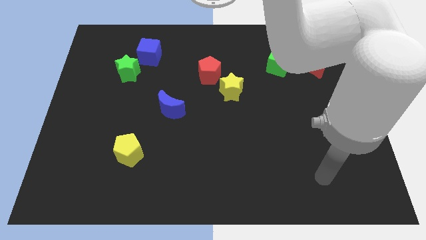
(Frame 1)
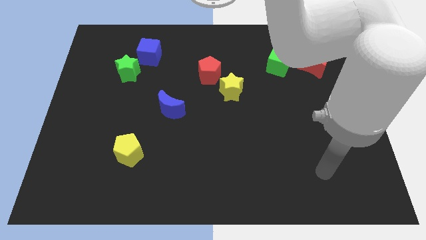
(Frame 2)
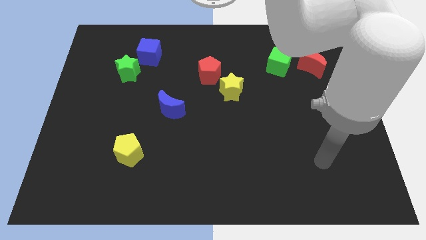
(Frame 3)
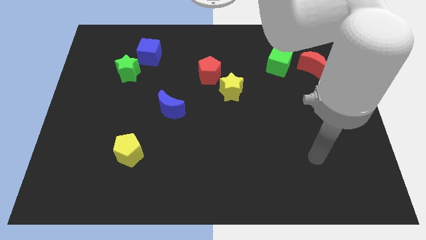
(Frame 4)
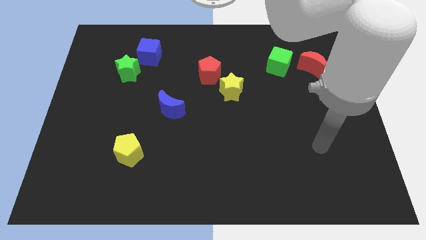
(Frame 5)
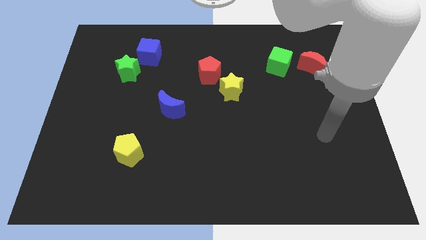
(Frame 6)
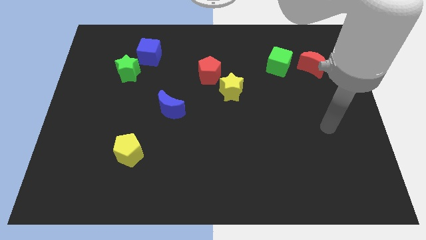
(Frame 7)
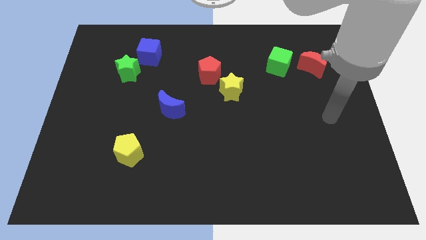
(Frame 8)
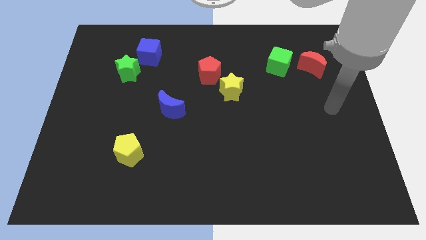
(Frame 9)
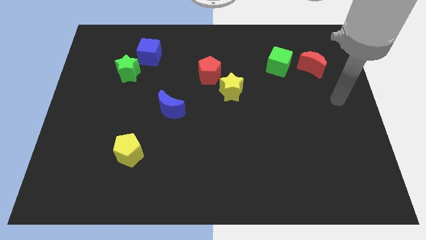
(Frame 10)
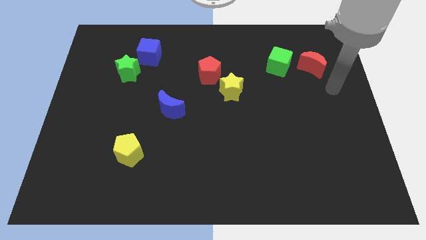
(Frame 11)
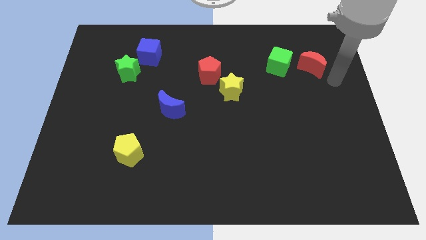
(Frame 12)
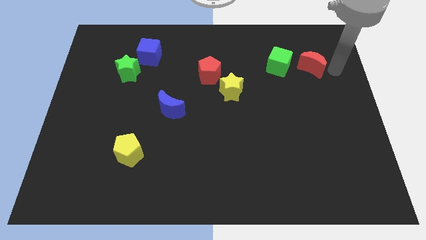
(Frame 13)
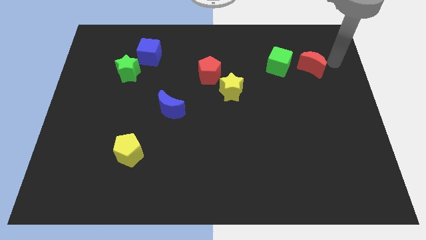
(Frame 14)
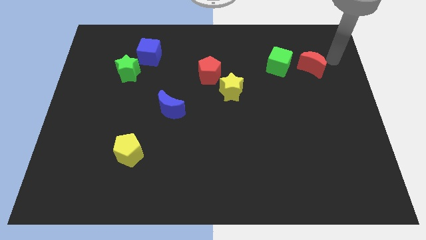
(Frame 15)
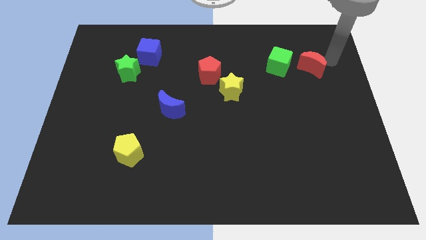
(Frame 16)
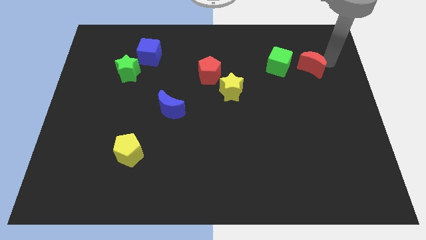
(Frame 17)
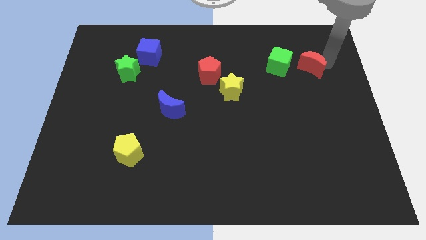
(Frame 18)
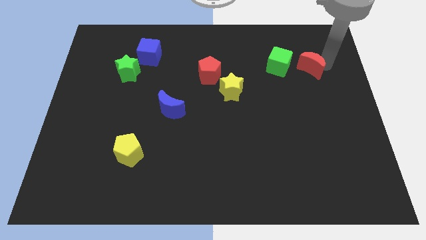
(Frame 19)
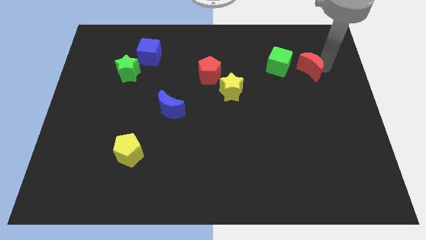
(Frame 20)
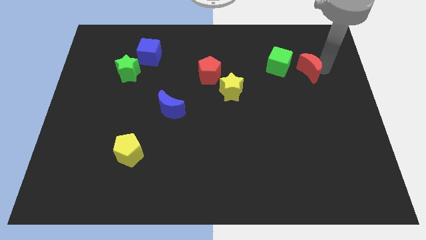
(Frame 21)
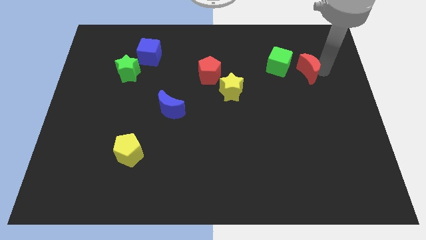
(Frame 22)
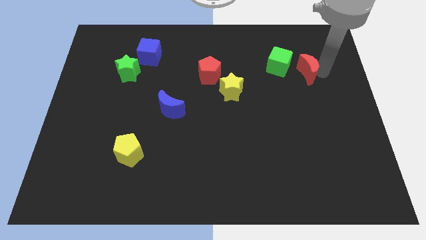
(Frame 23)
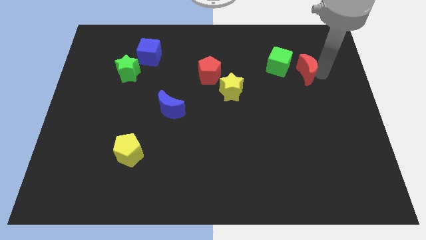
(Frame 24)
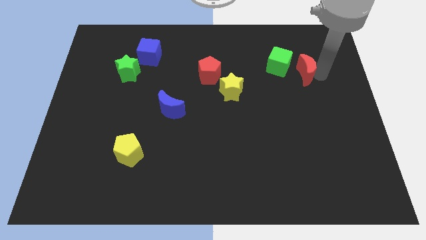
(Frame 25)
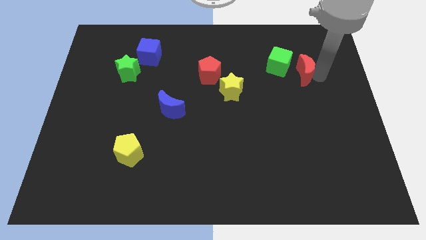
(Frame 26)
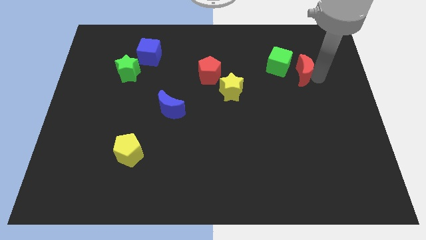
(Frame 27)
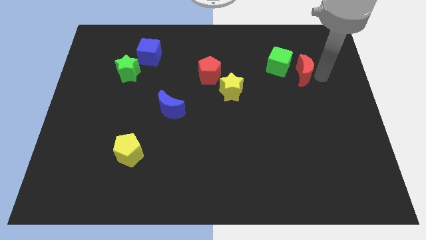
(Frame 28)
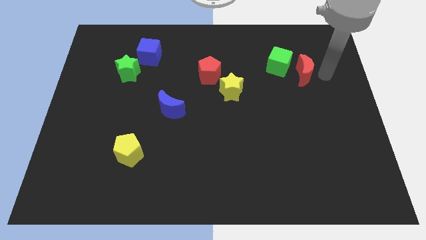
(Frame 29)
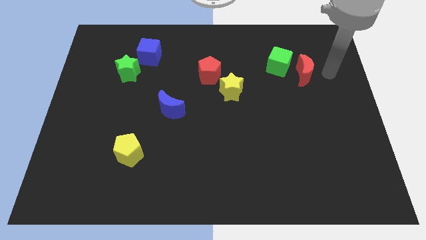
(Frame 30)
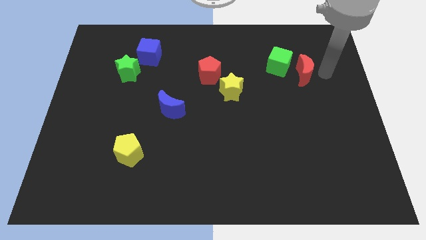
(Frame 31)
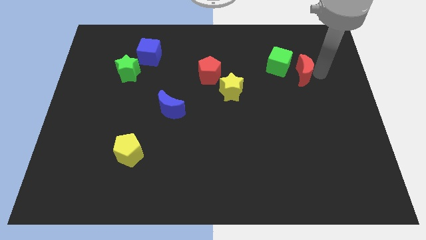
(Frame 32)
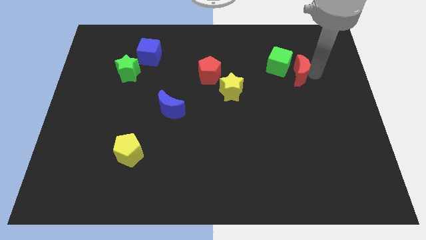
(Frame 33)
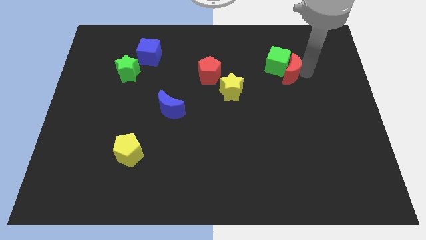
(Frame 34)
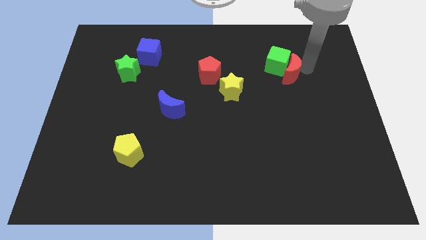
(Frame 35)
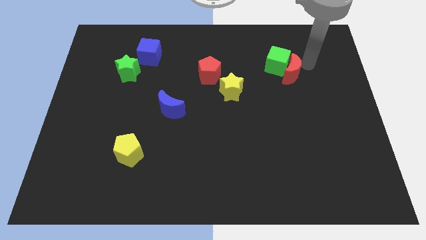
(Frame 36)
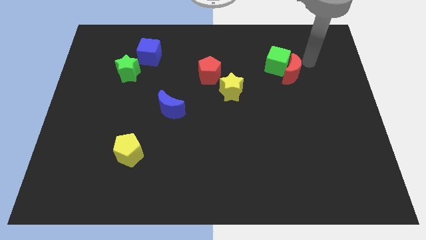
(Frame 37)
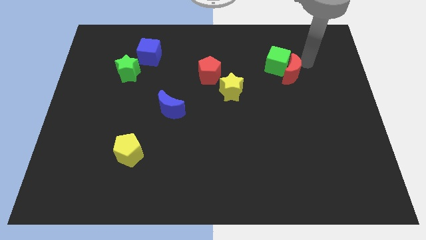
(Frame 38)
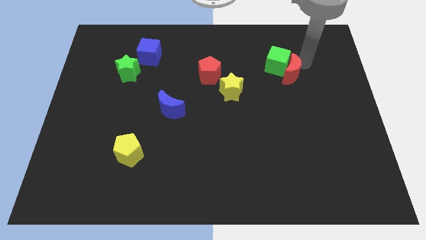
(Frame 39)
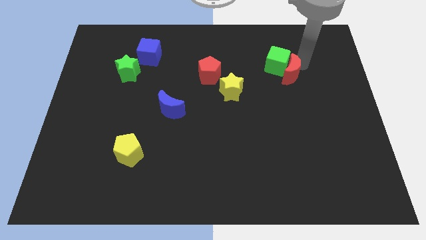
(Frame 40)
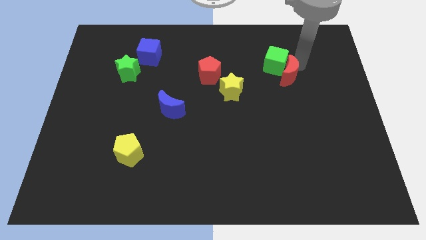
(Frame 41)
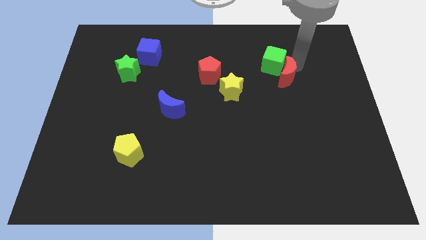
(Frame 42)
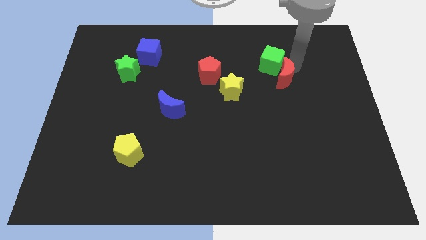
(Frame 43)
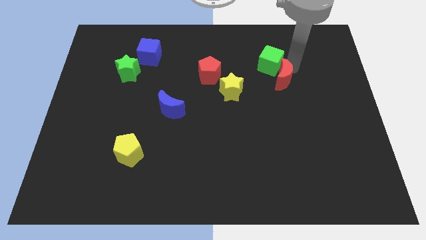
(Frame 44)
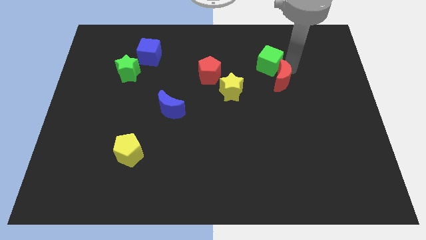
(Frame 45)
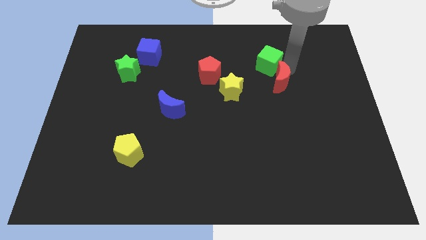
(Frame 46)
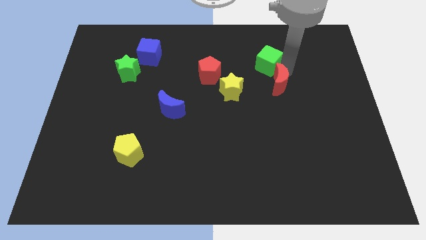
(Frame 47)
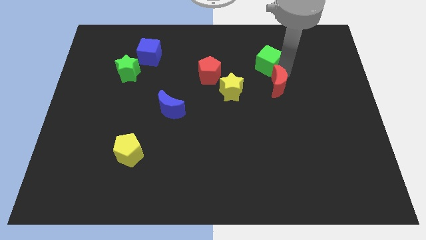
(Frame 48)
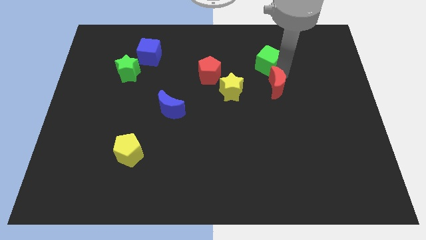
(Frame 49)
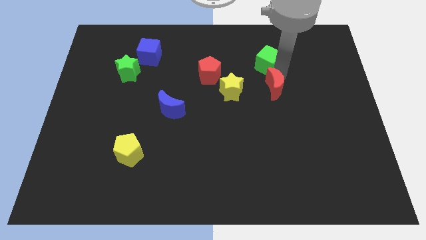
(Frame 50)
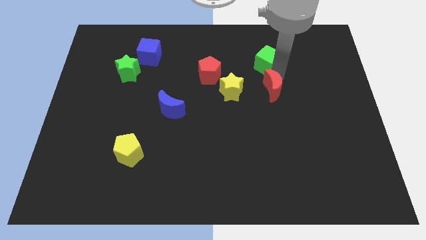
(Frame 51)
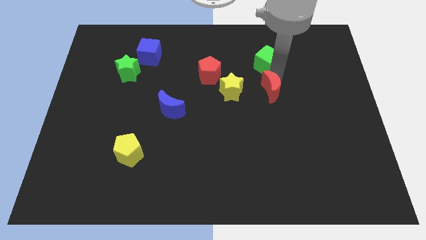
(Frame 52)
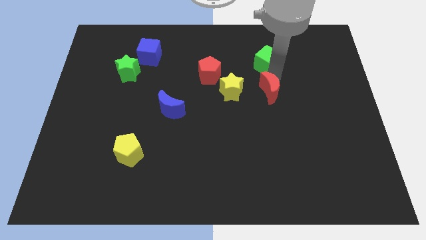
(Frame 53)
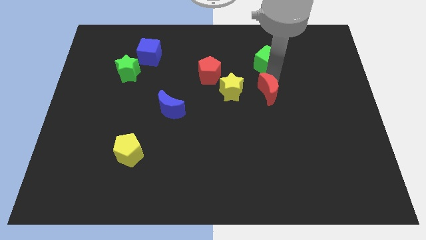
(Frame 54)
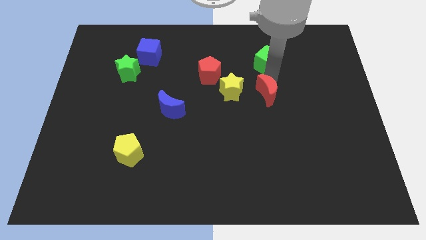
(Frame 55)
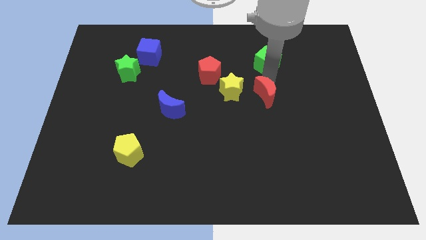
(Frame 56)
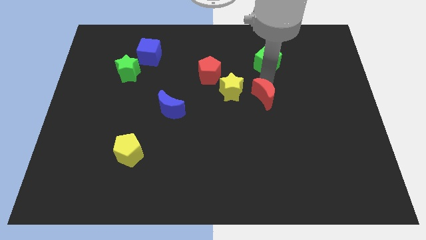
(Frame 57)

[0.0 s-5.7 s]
slide the red moon to the center of the board
